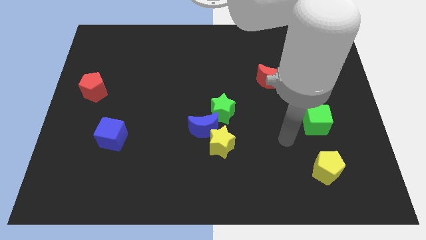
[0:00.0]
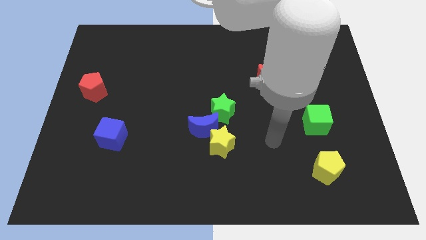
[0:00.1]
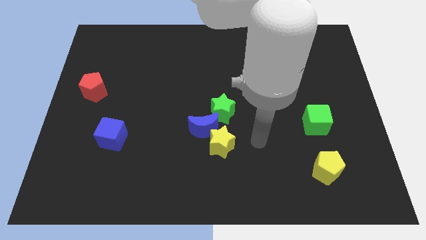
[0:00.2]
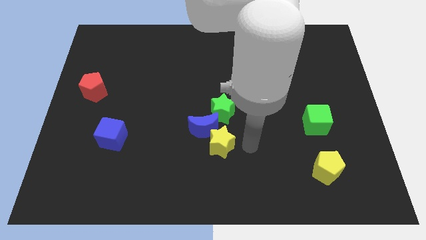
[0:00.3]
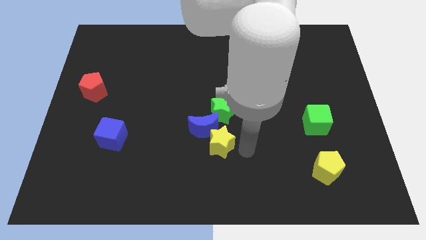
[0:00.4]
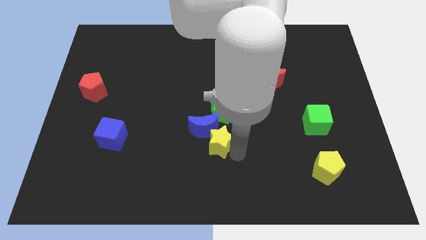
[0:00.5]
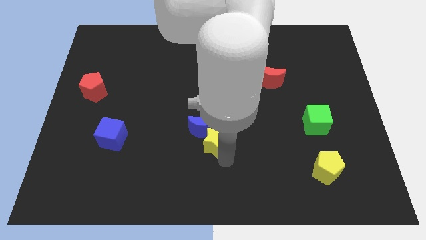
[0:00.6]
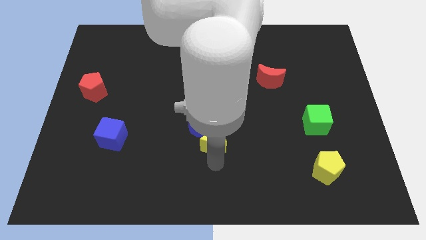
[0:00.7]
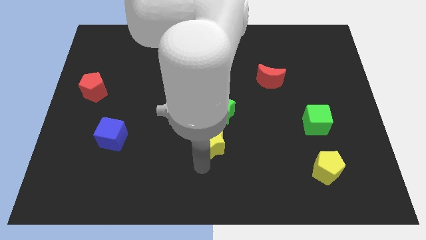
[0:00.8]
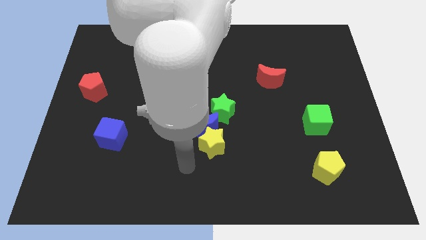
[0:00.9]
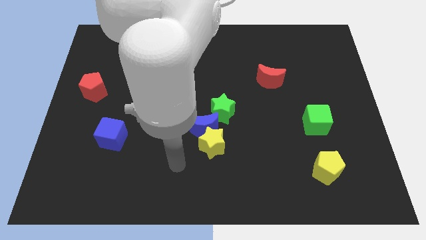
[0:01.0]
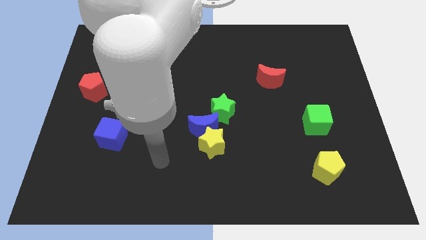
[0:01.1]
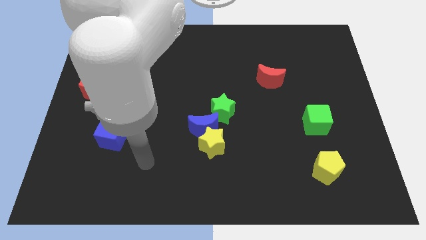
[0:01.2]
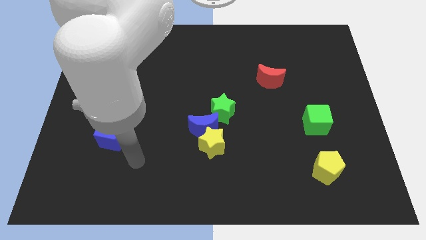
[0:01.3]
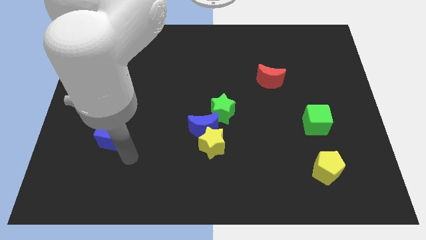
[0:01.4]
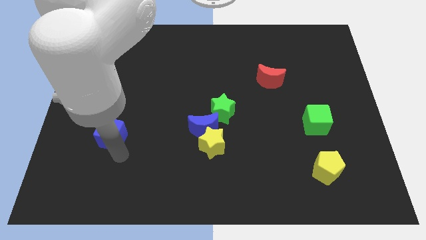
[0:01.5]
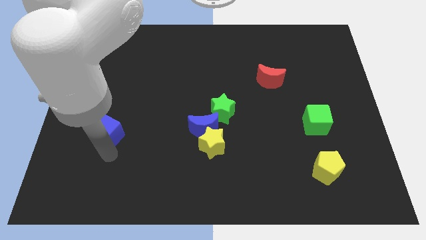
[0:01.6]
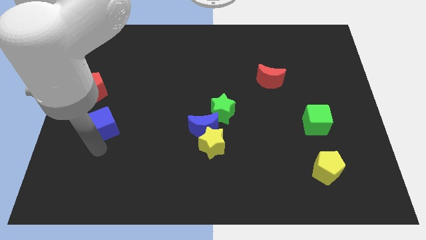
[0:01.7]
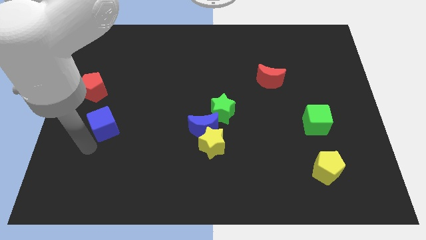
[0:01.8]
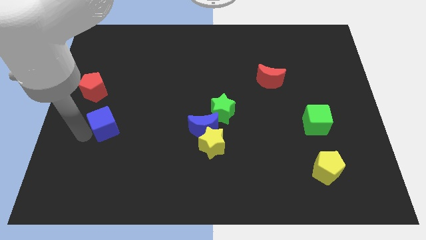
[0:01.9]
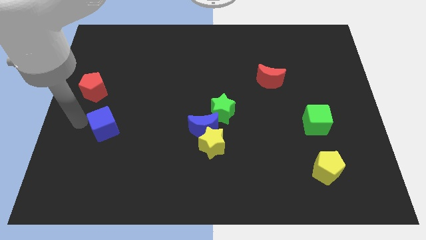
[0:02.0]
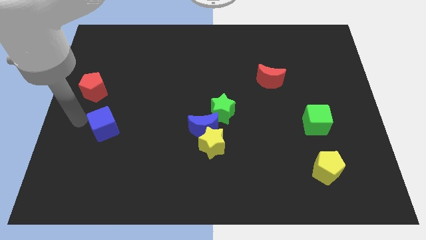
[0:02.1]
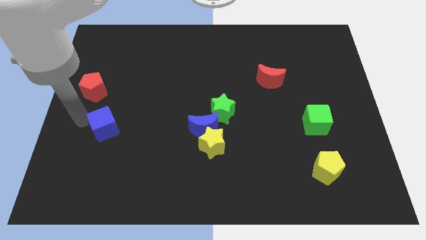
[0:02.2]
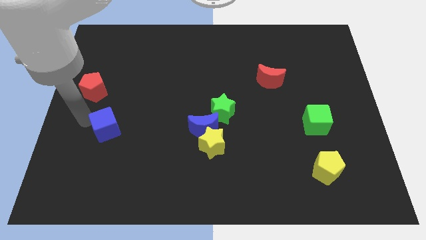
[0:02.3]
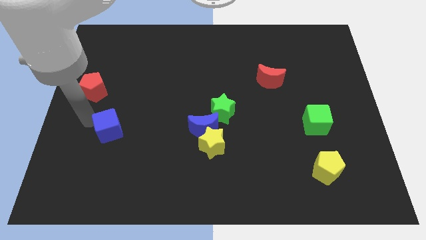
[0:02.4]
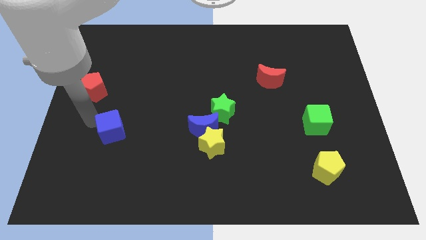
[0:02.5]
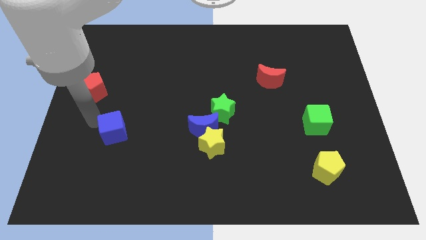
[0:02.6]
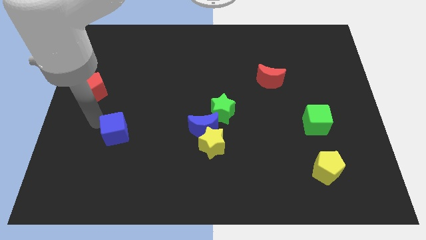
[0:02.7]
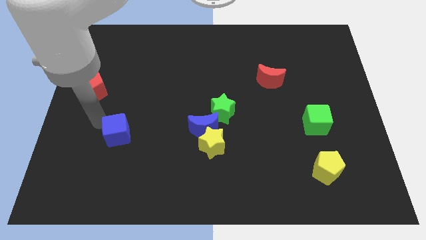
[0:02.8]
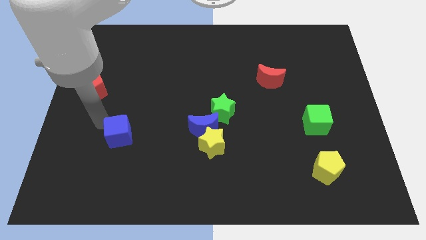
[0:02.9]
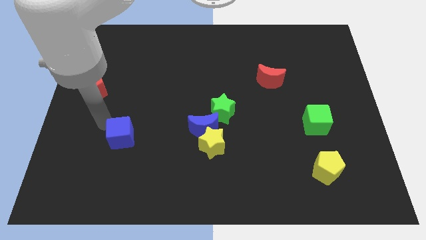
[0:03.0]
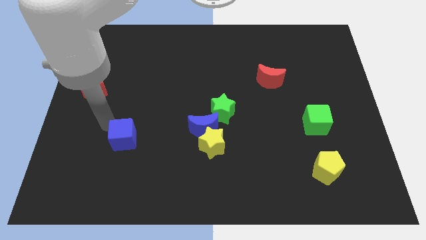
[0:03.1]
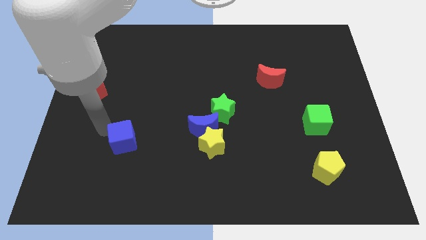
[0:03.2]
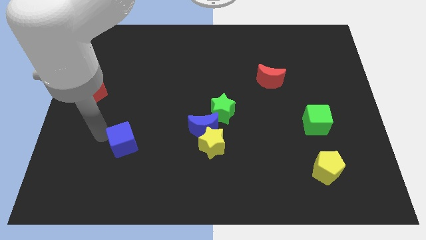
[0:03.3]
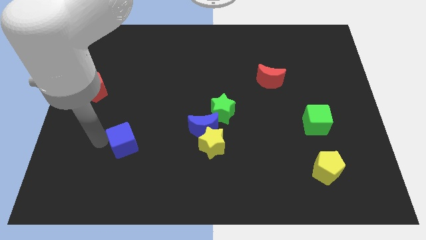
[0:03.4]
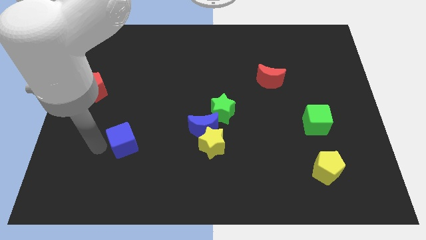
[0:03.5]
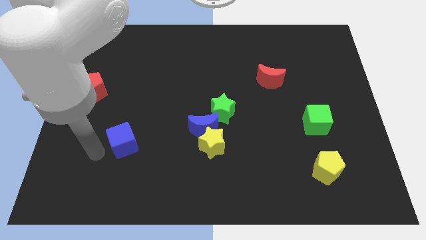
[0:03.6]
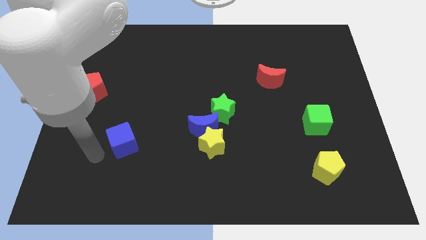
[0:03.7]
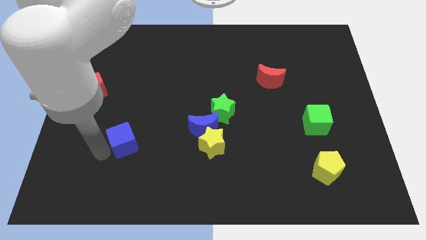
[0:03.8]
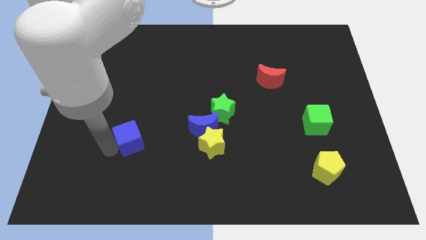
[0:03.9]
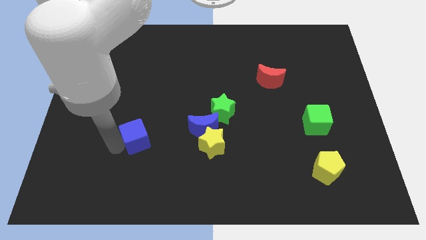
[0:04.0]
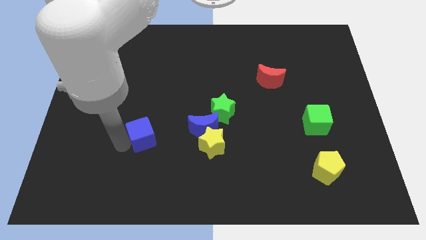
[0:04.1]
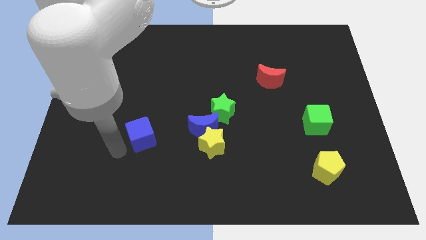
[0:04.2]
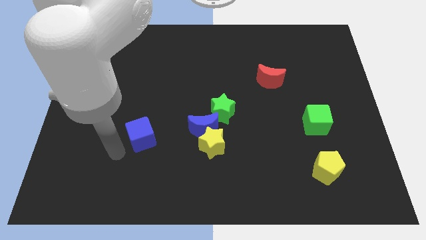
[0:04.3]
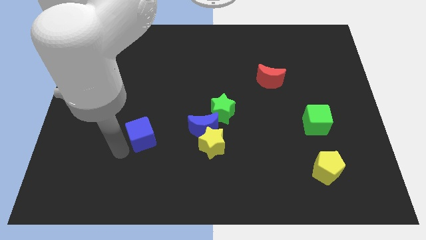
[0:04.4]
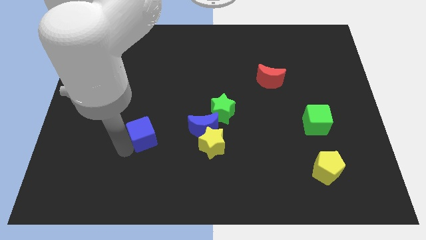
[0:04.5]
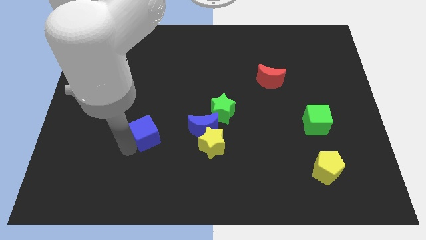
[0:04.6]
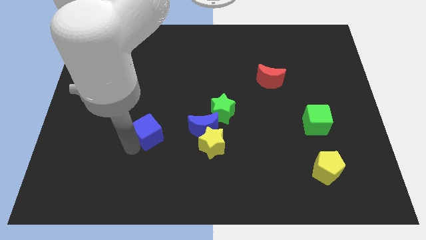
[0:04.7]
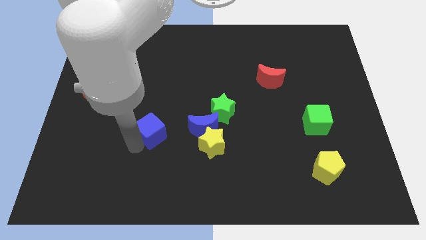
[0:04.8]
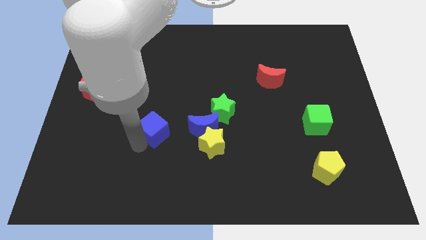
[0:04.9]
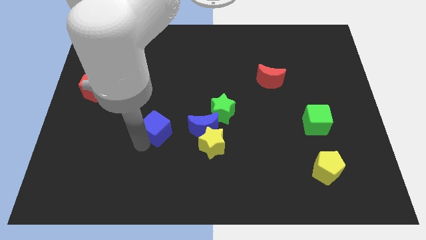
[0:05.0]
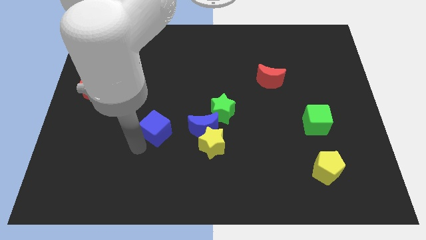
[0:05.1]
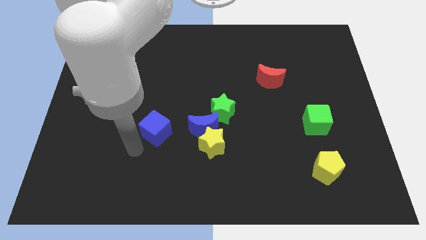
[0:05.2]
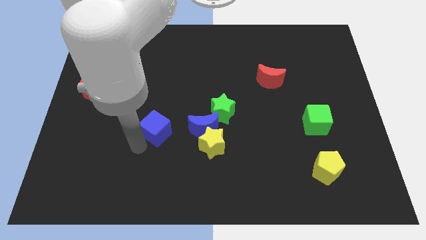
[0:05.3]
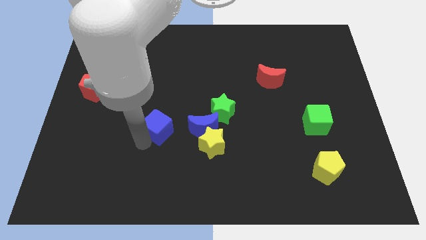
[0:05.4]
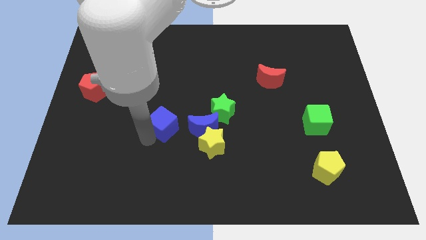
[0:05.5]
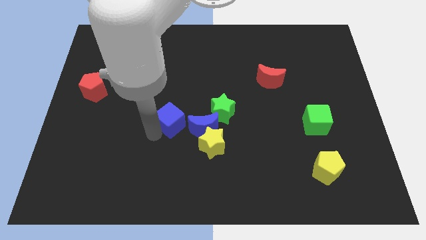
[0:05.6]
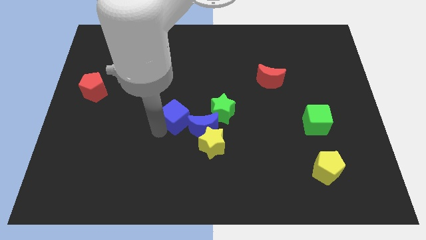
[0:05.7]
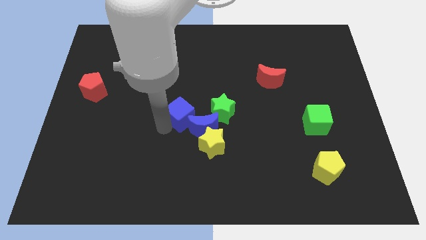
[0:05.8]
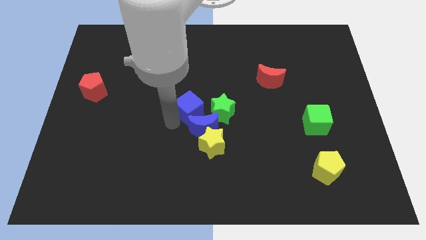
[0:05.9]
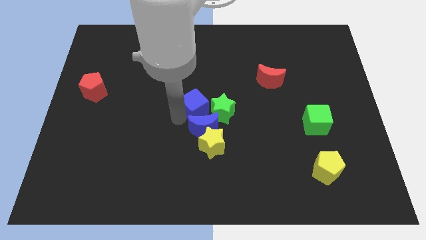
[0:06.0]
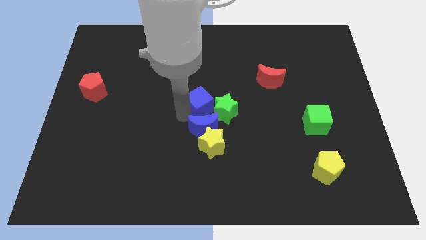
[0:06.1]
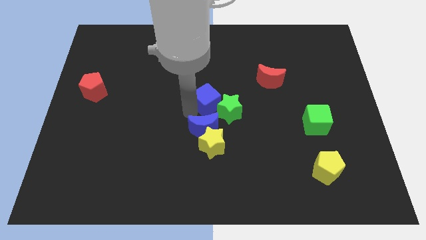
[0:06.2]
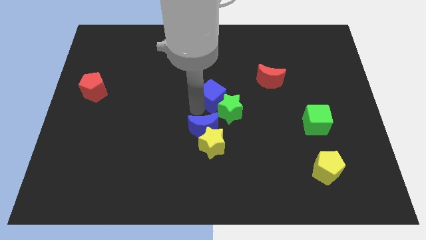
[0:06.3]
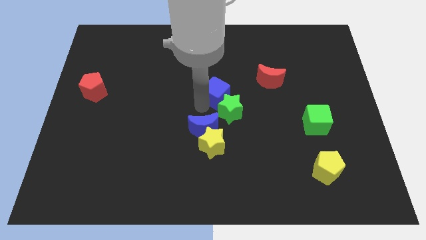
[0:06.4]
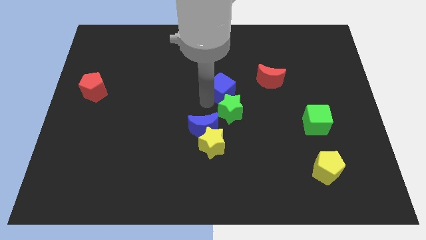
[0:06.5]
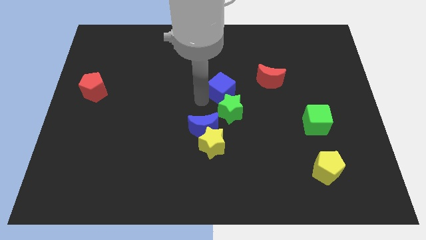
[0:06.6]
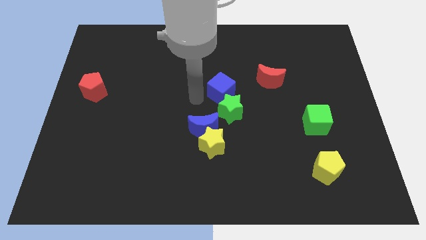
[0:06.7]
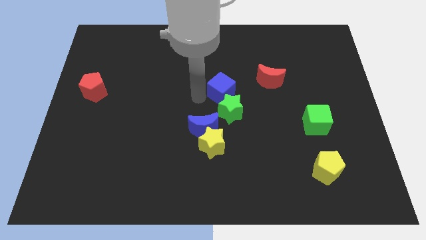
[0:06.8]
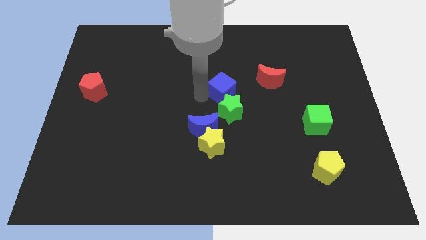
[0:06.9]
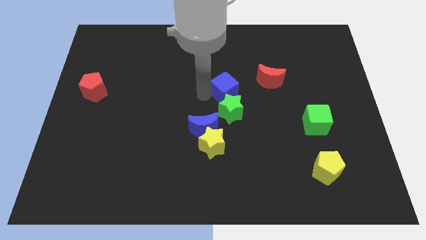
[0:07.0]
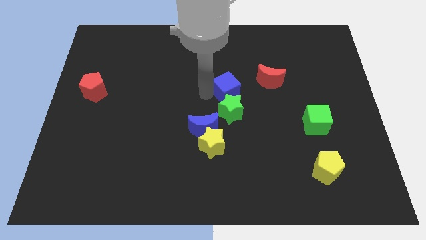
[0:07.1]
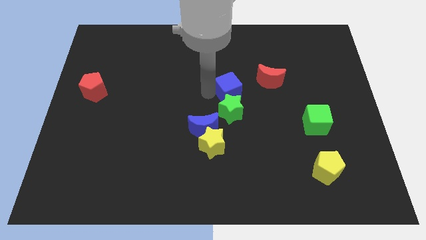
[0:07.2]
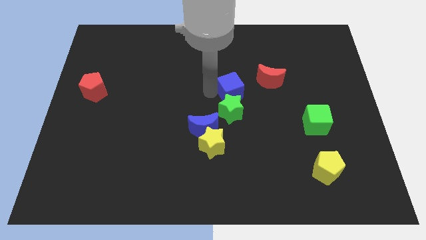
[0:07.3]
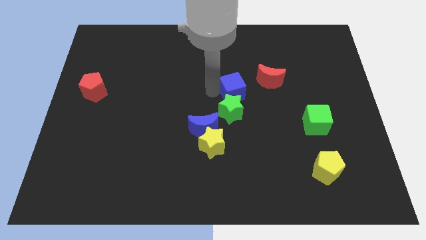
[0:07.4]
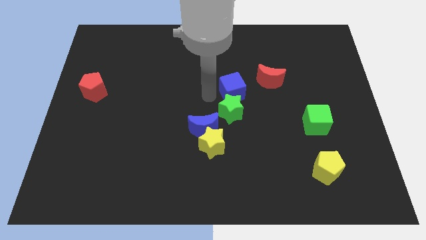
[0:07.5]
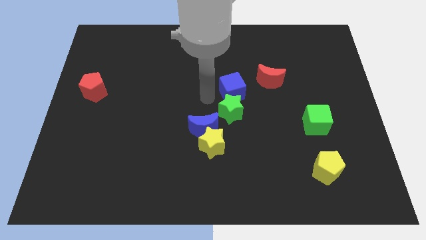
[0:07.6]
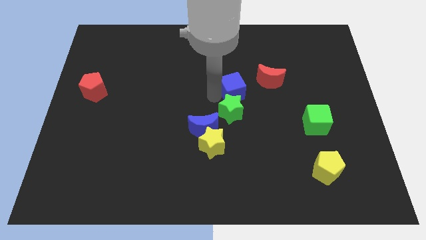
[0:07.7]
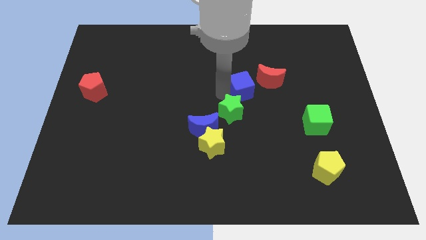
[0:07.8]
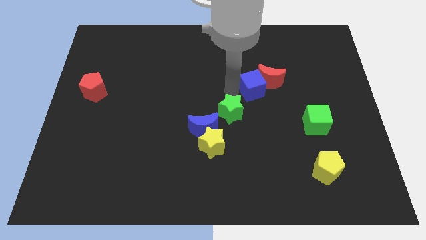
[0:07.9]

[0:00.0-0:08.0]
slide the blue cube next to the red moon
